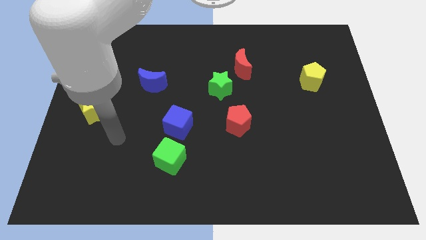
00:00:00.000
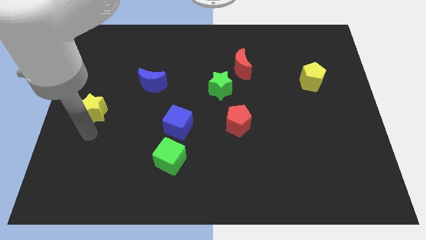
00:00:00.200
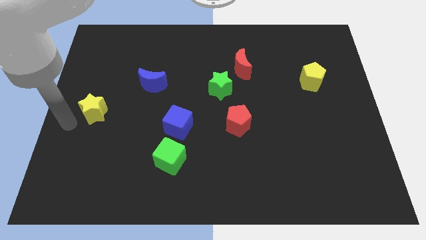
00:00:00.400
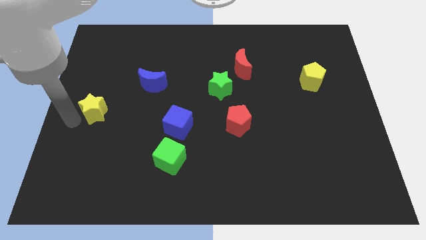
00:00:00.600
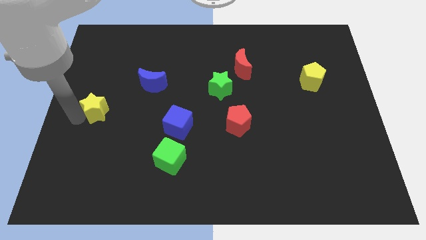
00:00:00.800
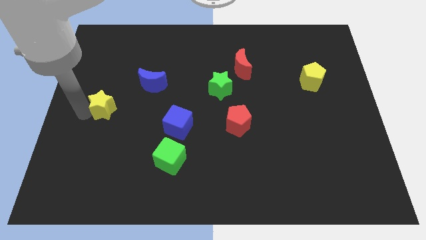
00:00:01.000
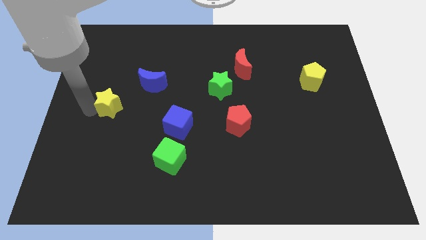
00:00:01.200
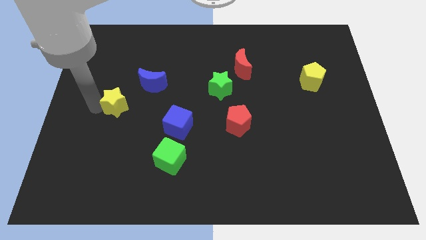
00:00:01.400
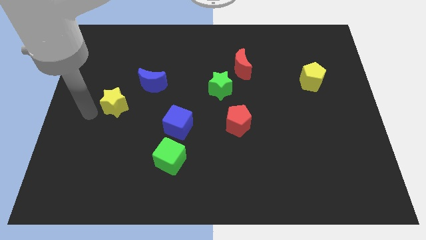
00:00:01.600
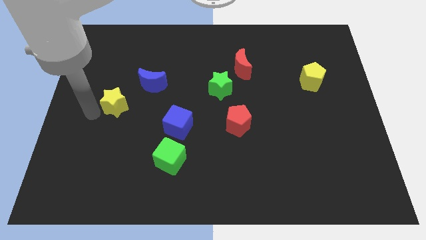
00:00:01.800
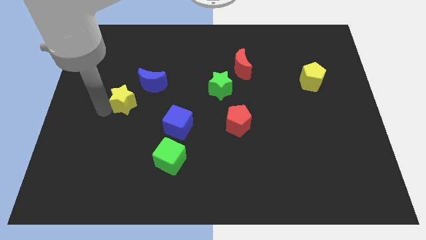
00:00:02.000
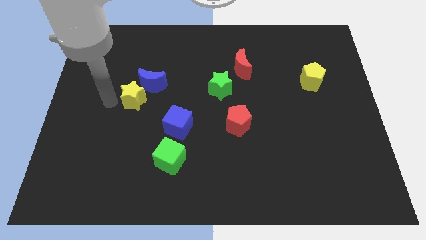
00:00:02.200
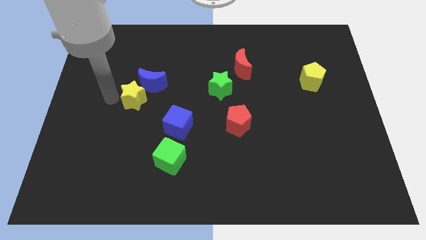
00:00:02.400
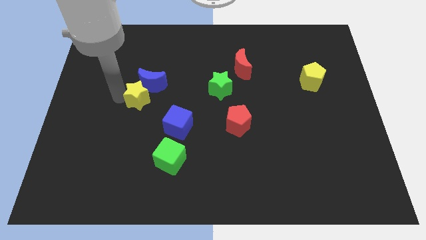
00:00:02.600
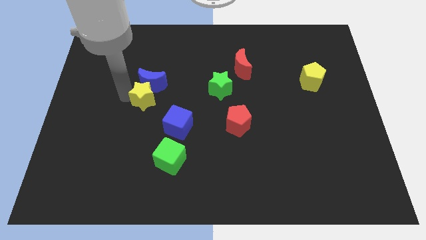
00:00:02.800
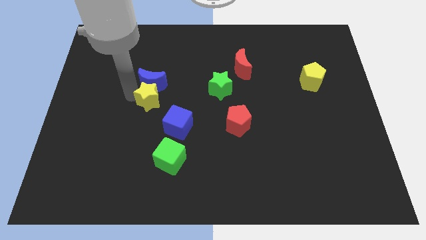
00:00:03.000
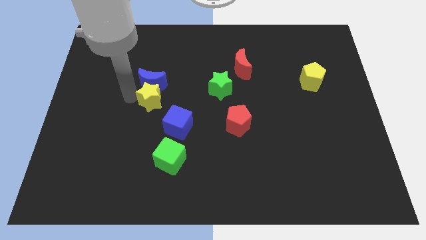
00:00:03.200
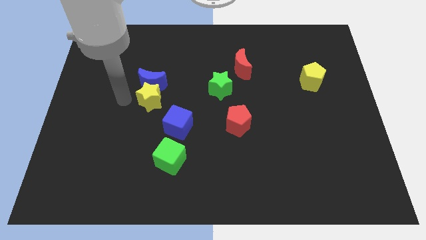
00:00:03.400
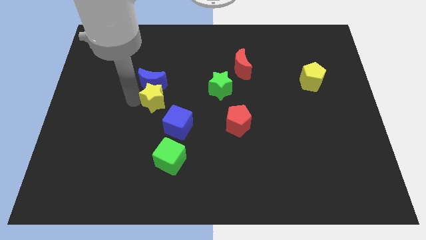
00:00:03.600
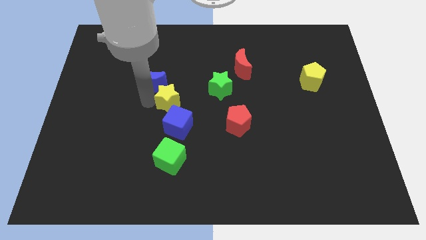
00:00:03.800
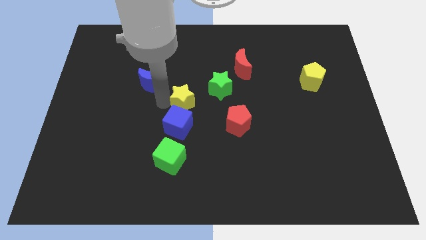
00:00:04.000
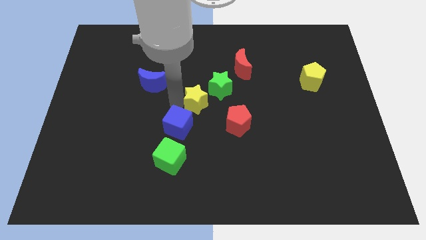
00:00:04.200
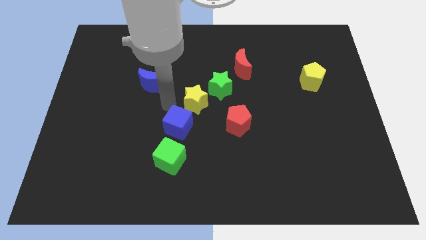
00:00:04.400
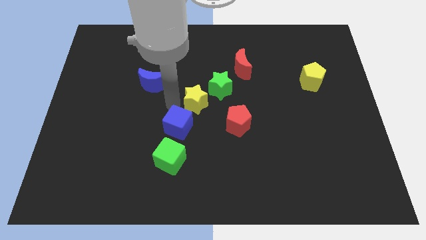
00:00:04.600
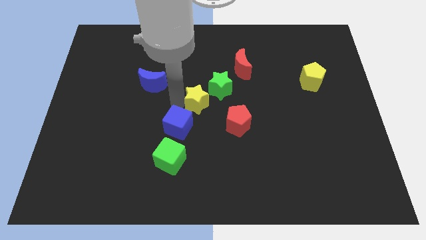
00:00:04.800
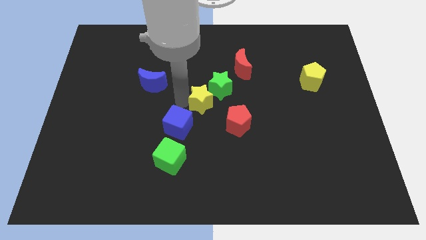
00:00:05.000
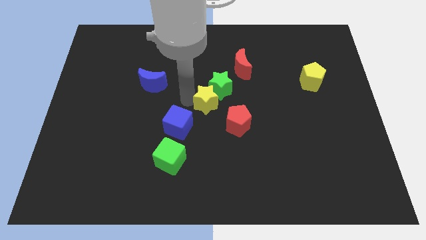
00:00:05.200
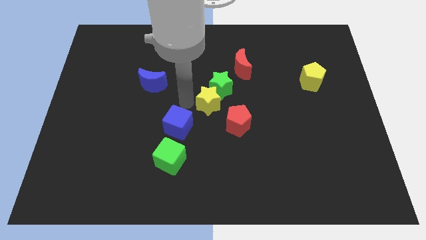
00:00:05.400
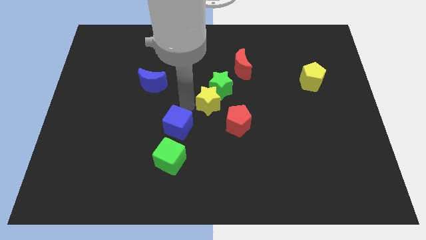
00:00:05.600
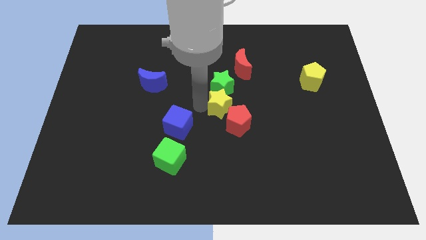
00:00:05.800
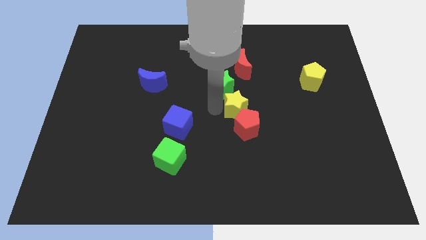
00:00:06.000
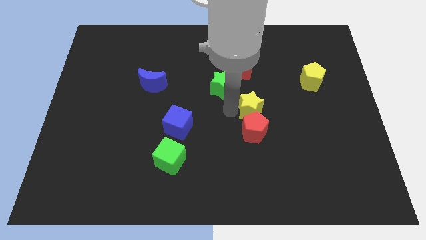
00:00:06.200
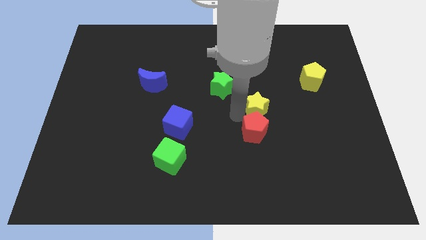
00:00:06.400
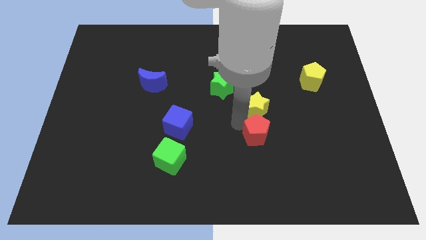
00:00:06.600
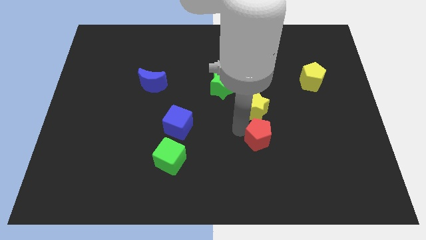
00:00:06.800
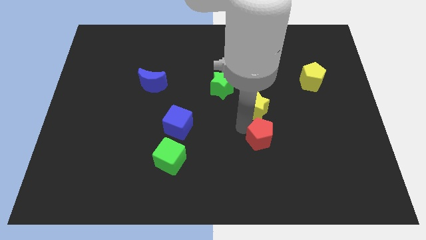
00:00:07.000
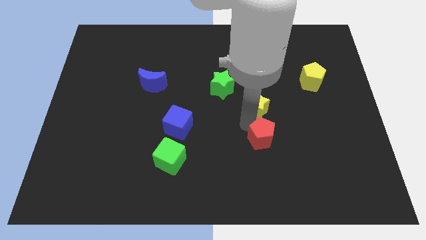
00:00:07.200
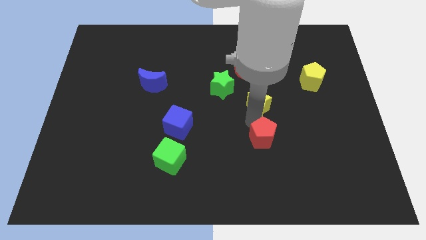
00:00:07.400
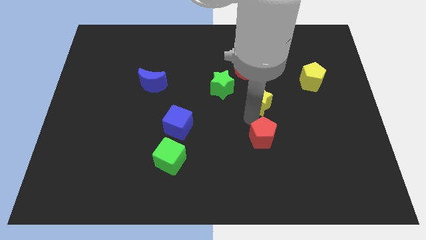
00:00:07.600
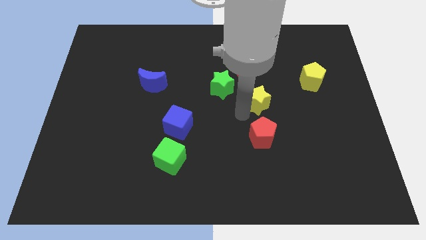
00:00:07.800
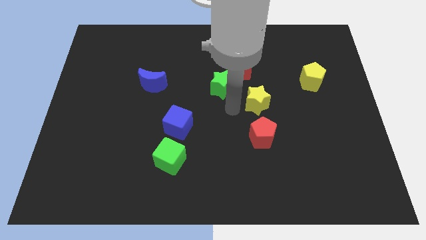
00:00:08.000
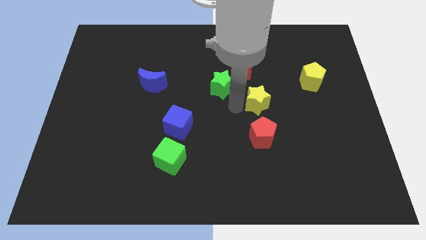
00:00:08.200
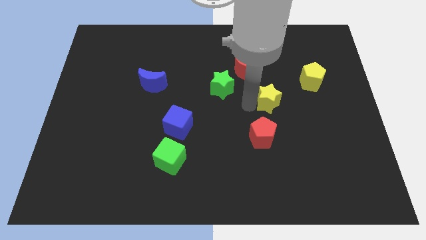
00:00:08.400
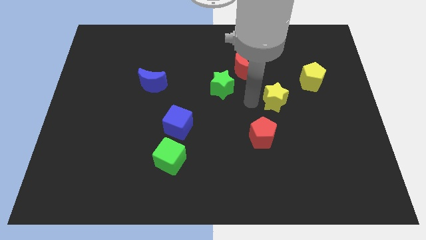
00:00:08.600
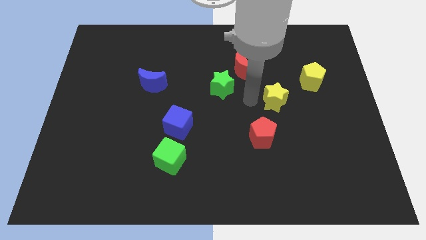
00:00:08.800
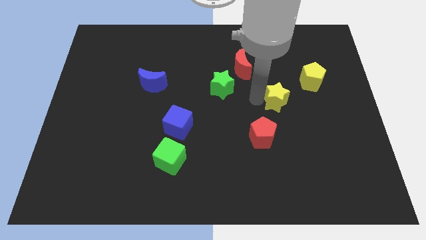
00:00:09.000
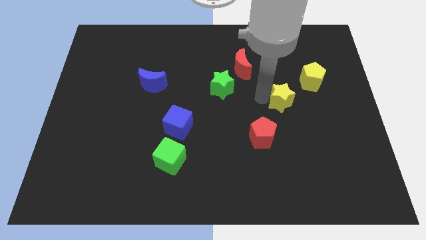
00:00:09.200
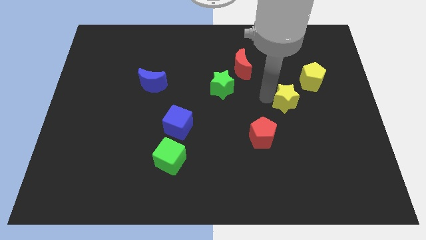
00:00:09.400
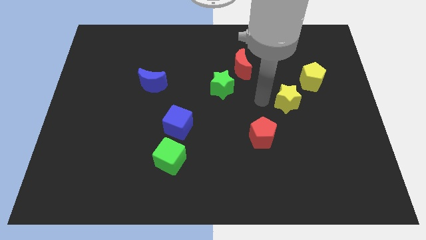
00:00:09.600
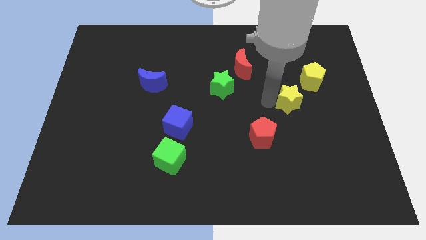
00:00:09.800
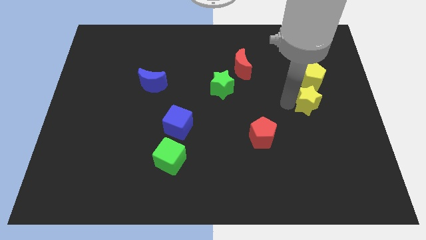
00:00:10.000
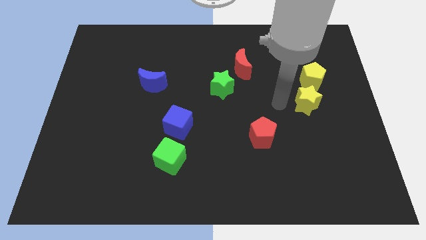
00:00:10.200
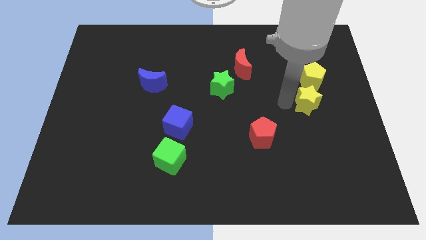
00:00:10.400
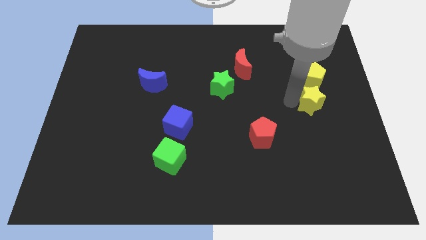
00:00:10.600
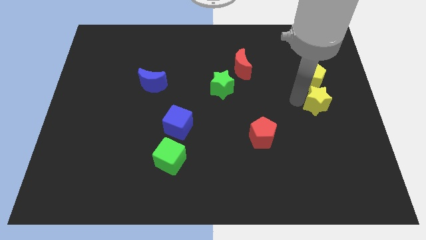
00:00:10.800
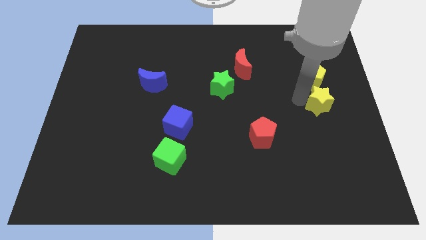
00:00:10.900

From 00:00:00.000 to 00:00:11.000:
move the yellow star to the center right

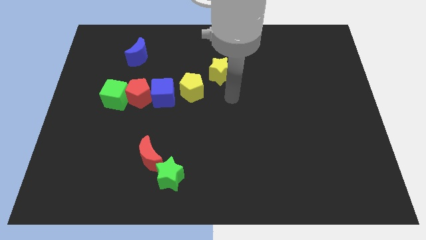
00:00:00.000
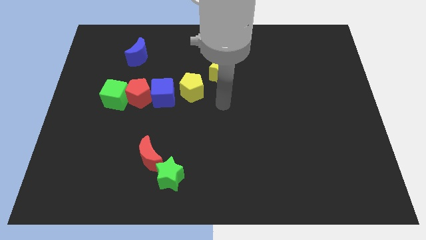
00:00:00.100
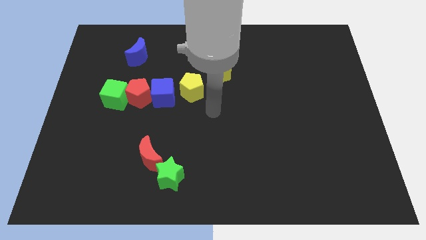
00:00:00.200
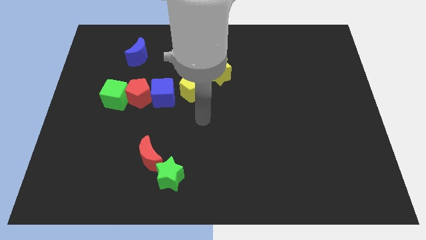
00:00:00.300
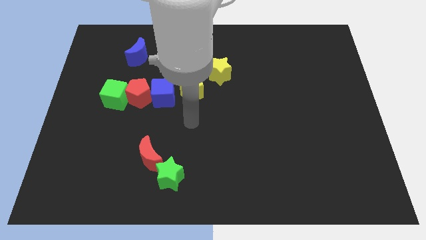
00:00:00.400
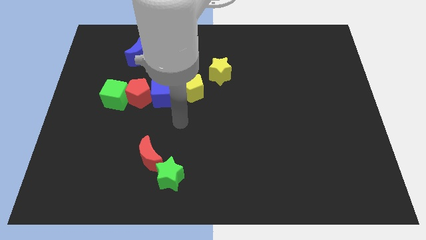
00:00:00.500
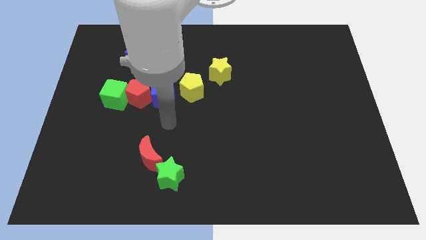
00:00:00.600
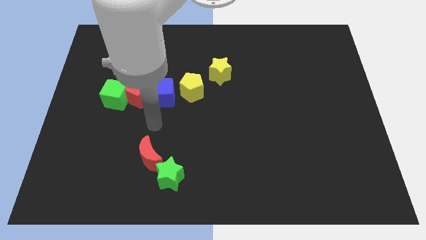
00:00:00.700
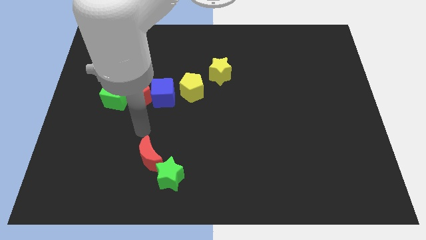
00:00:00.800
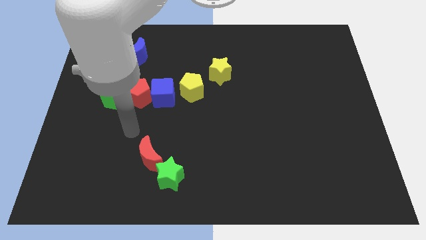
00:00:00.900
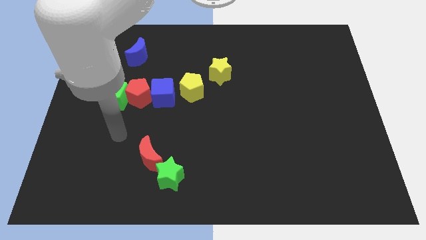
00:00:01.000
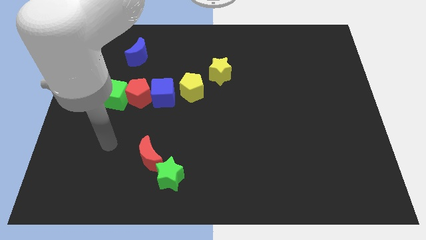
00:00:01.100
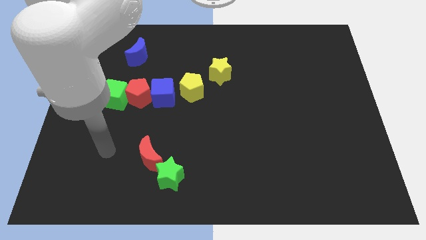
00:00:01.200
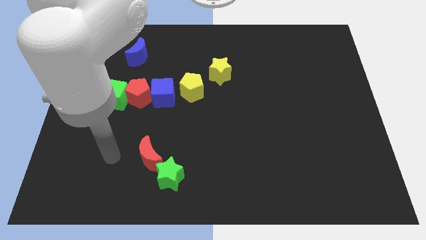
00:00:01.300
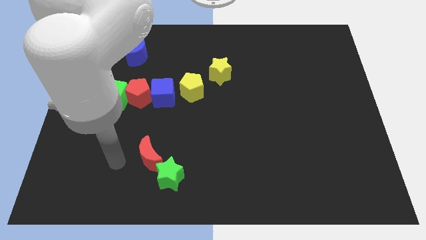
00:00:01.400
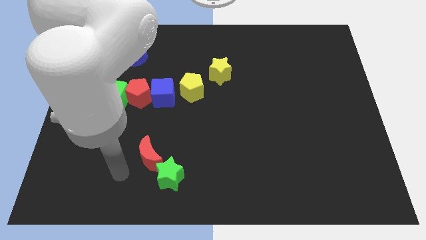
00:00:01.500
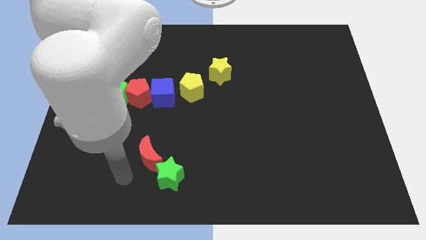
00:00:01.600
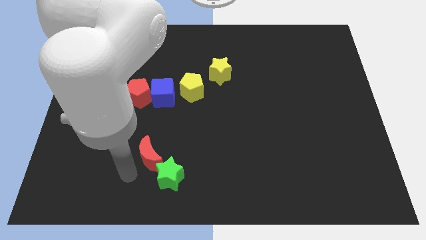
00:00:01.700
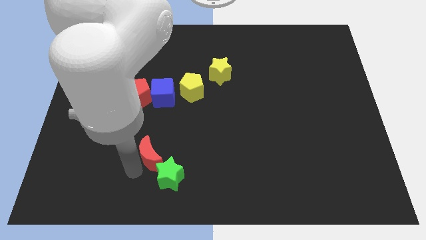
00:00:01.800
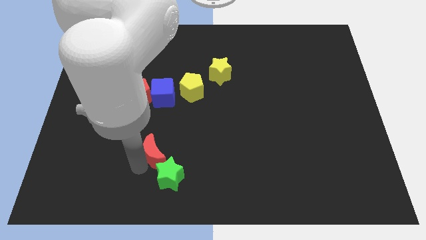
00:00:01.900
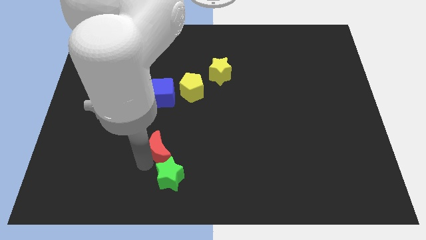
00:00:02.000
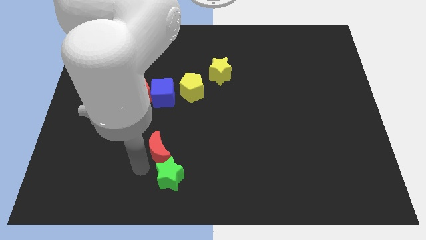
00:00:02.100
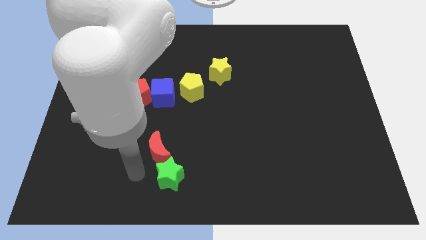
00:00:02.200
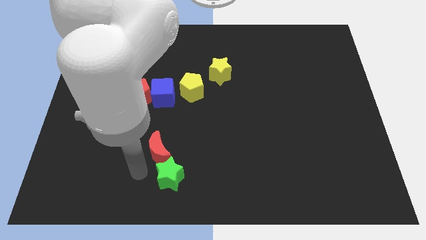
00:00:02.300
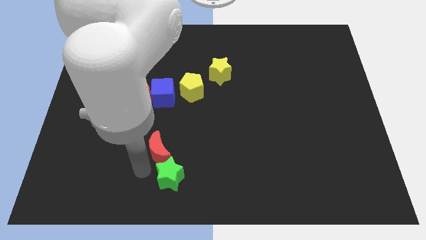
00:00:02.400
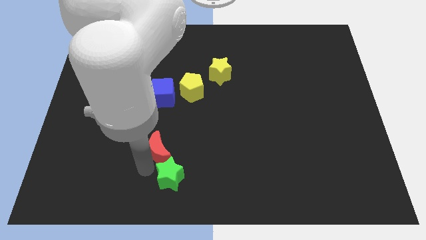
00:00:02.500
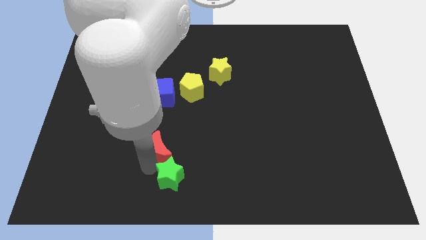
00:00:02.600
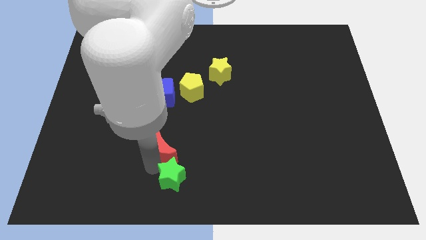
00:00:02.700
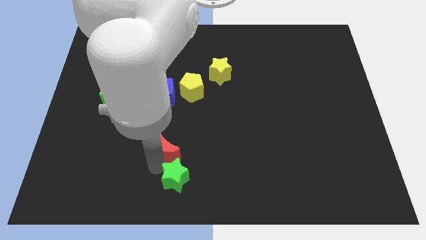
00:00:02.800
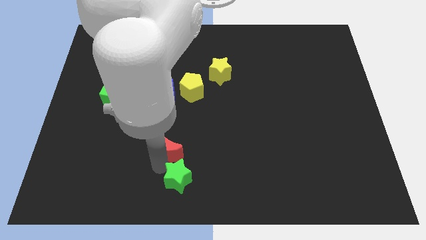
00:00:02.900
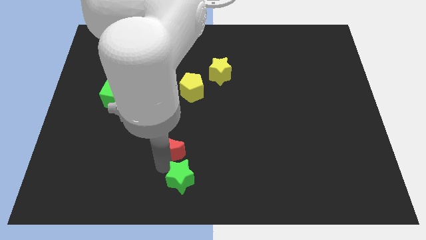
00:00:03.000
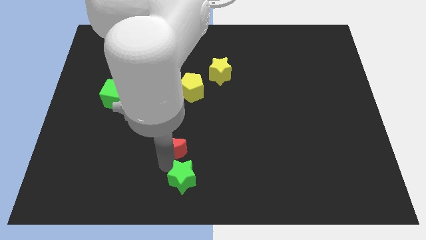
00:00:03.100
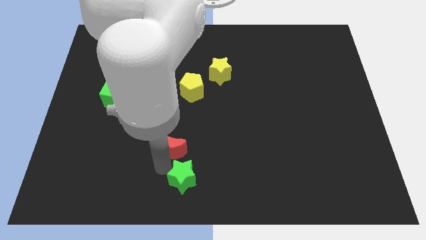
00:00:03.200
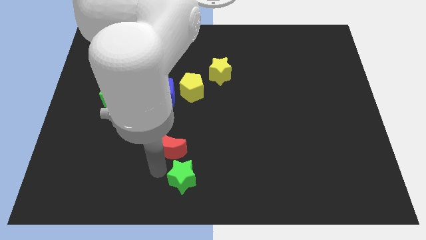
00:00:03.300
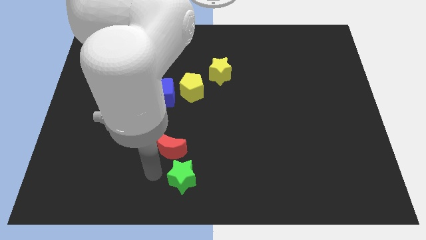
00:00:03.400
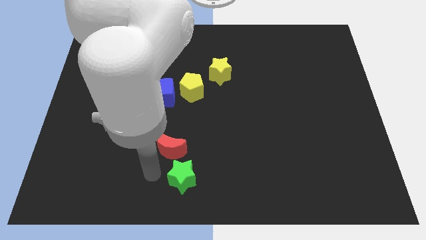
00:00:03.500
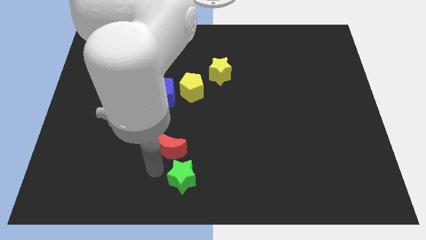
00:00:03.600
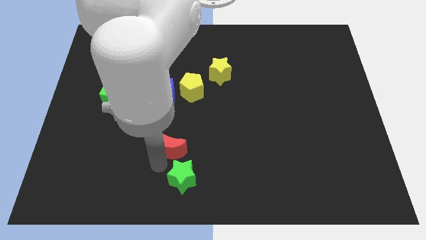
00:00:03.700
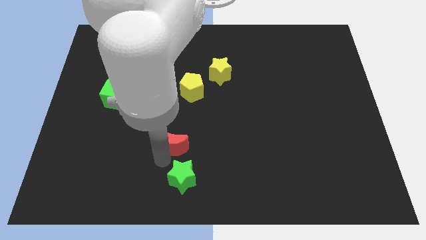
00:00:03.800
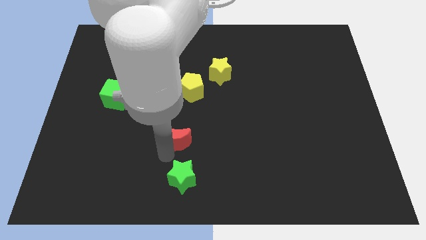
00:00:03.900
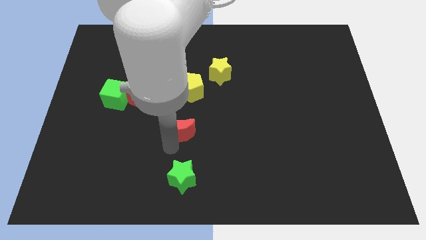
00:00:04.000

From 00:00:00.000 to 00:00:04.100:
put the red moon to the center
